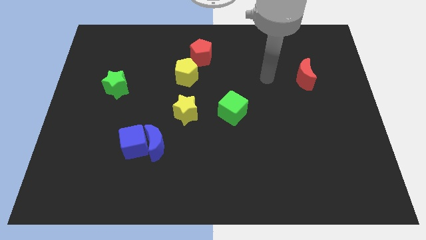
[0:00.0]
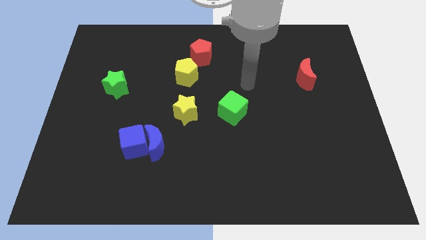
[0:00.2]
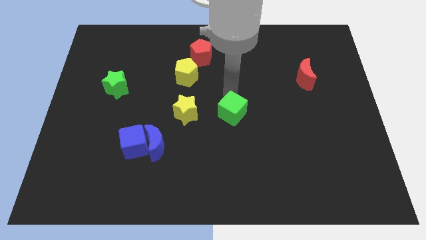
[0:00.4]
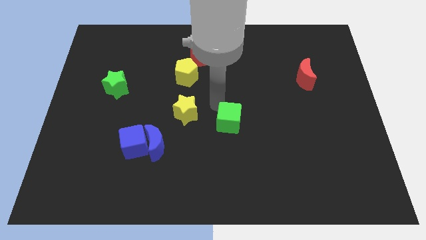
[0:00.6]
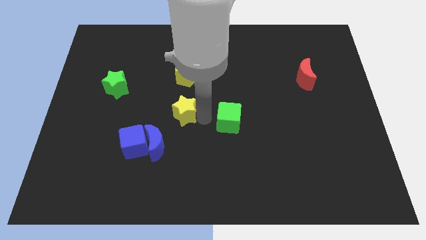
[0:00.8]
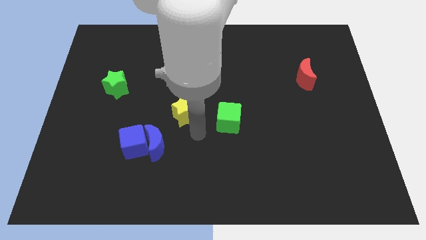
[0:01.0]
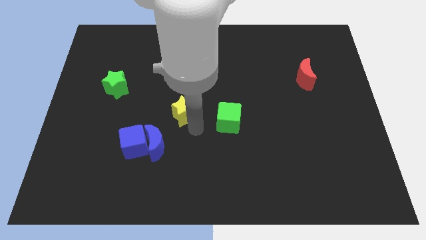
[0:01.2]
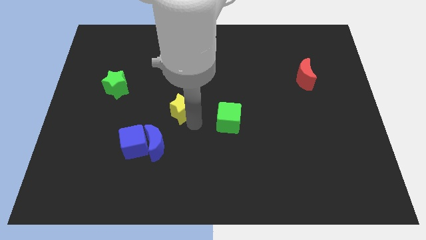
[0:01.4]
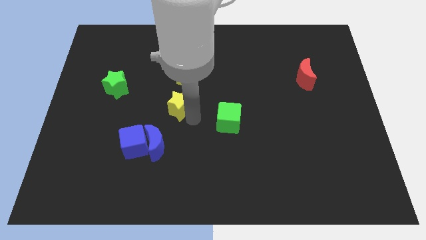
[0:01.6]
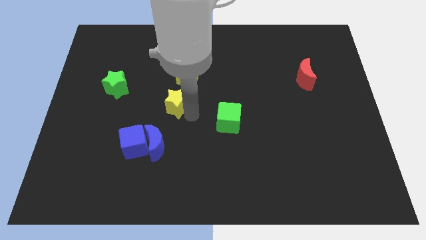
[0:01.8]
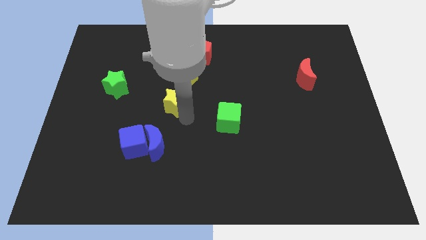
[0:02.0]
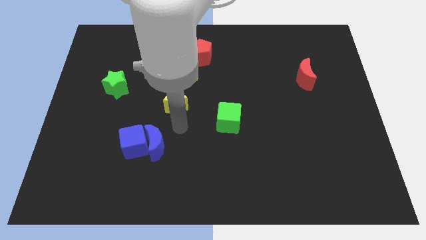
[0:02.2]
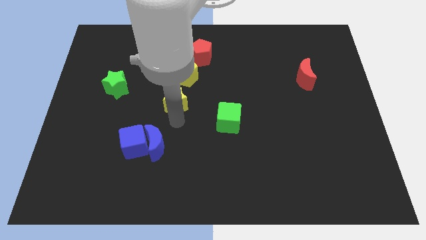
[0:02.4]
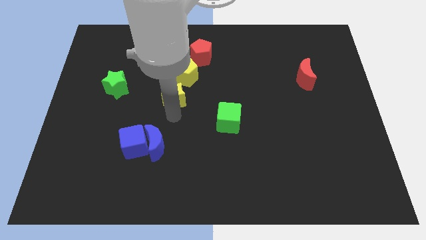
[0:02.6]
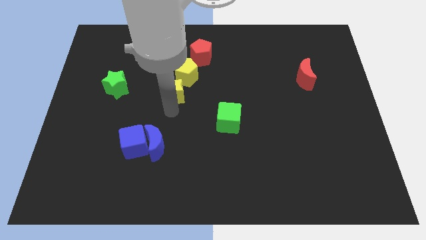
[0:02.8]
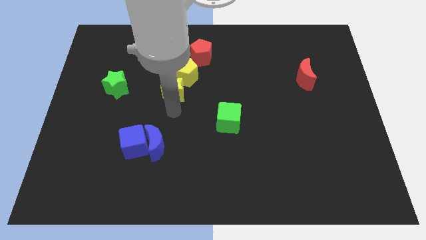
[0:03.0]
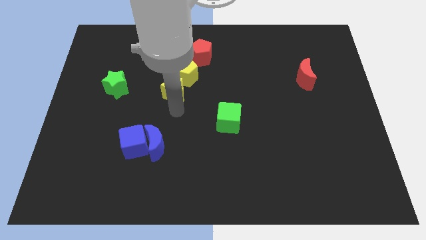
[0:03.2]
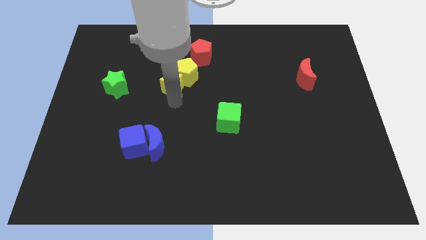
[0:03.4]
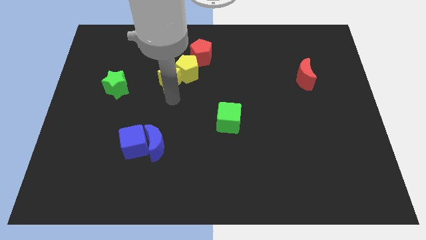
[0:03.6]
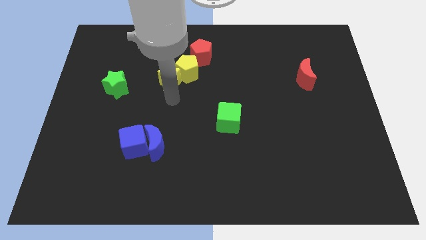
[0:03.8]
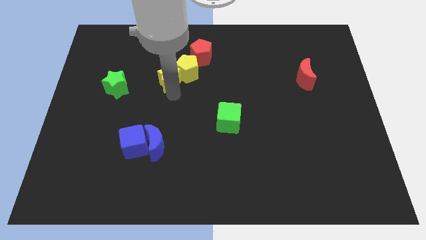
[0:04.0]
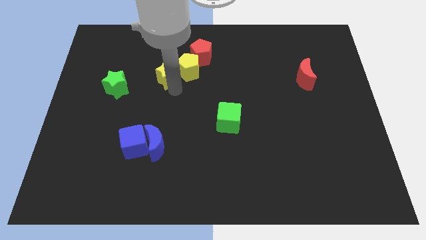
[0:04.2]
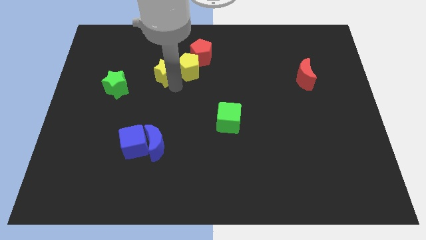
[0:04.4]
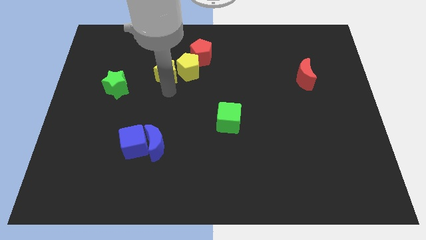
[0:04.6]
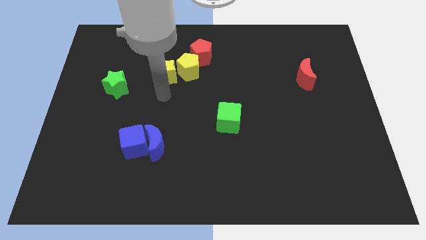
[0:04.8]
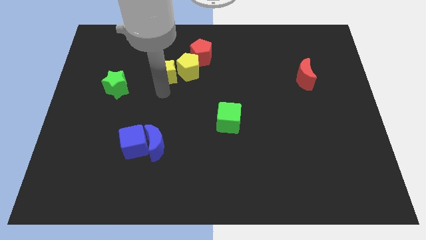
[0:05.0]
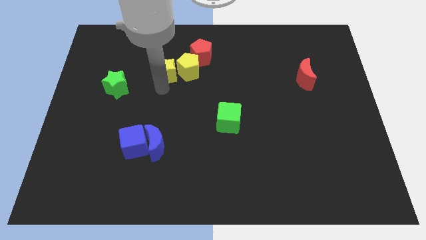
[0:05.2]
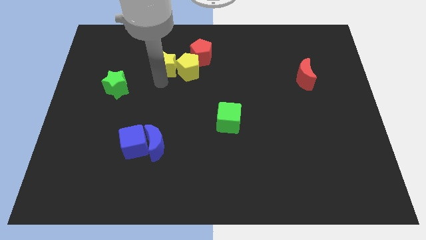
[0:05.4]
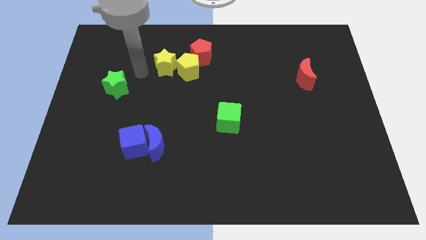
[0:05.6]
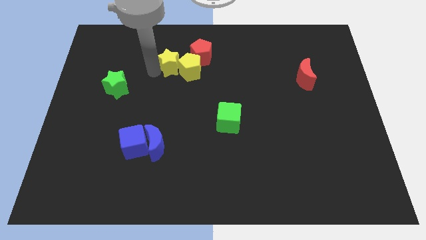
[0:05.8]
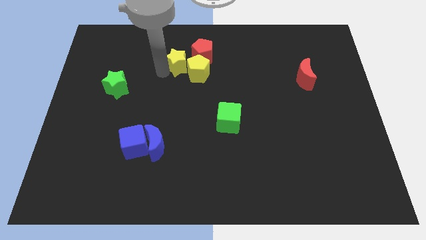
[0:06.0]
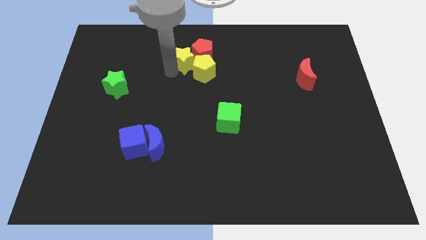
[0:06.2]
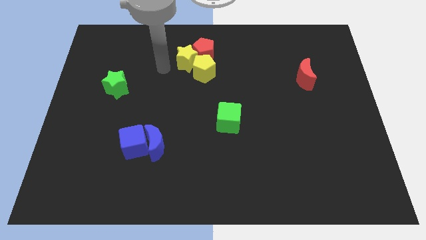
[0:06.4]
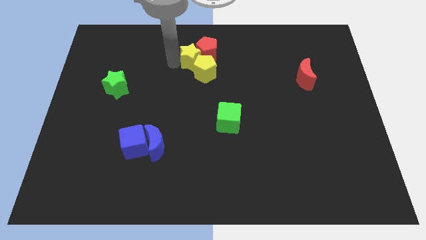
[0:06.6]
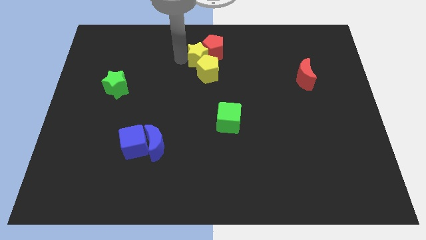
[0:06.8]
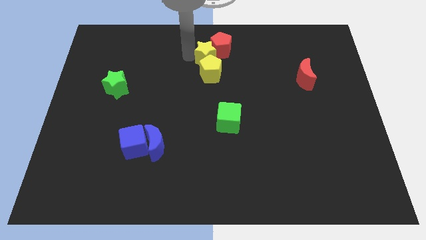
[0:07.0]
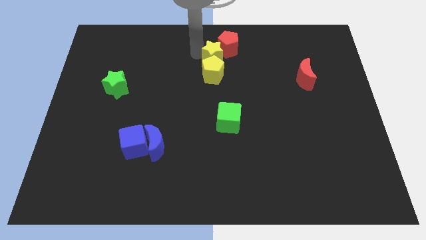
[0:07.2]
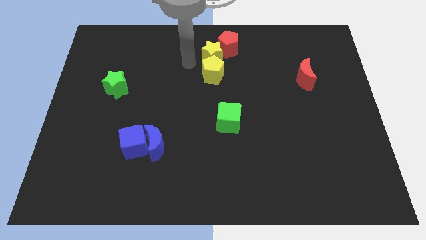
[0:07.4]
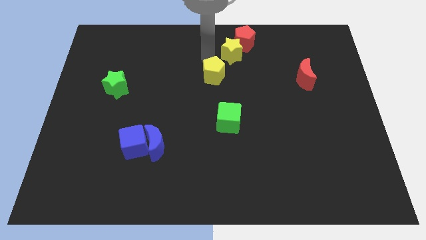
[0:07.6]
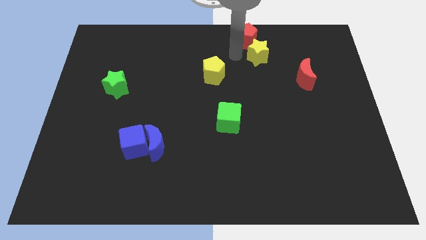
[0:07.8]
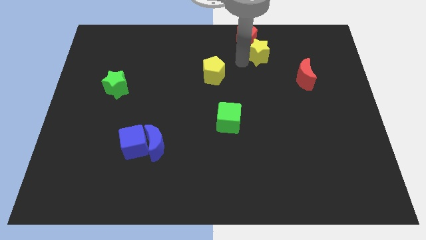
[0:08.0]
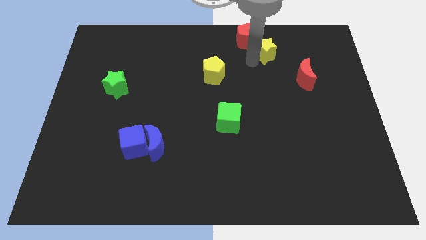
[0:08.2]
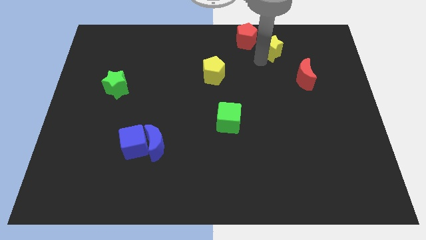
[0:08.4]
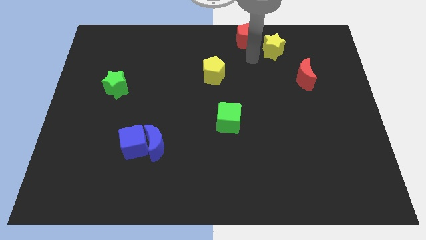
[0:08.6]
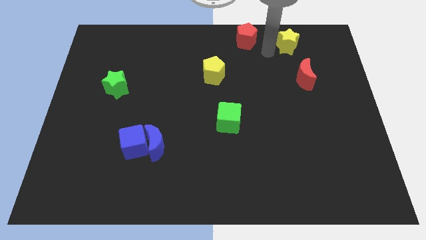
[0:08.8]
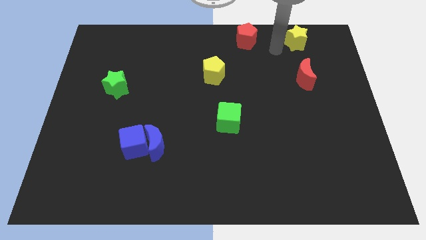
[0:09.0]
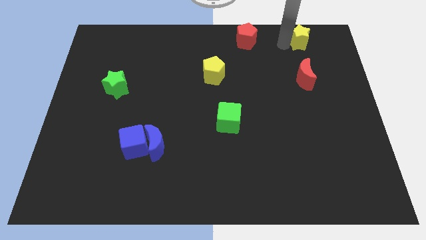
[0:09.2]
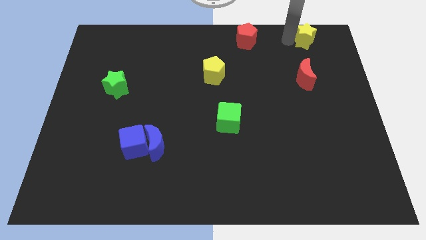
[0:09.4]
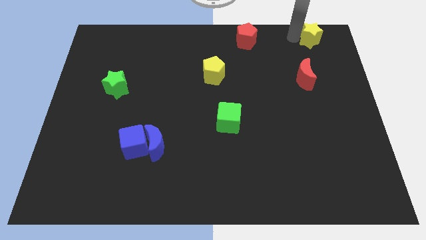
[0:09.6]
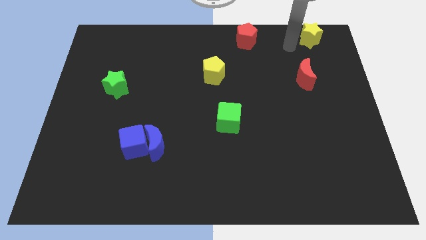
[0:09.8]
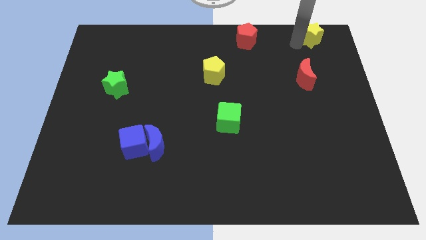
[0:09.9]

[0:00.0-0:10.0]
move the yellow star to the top right corner

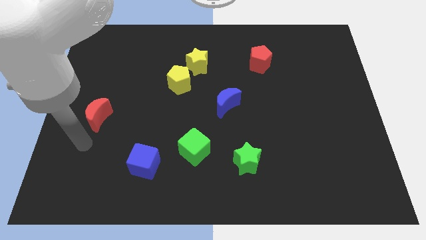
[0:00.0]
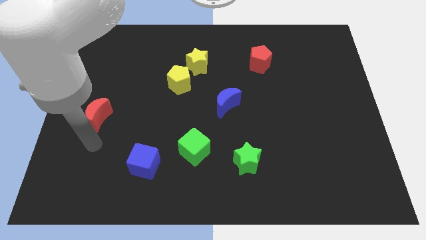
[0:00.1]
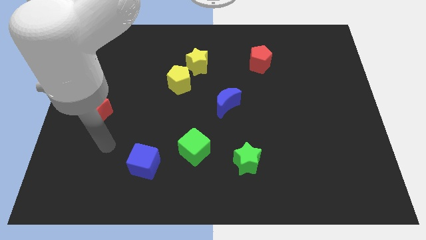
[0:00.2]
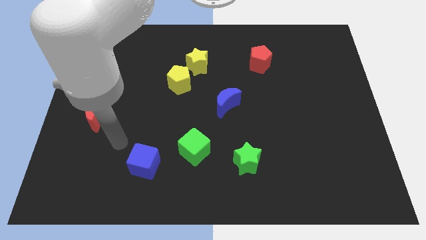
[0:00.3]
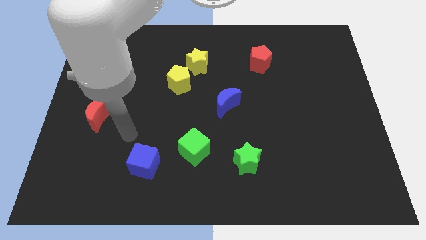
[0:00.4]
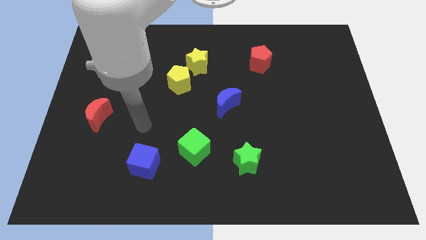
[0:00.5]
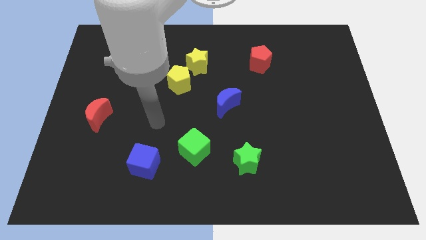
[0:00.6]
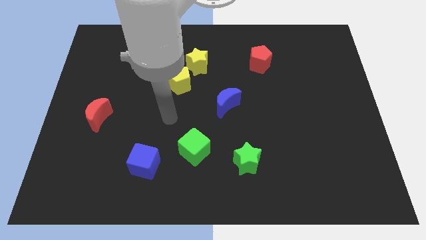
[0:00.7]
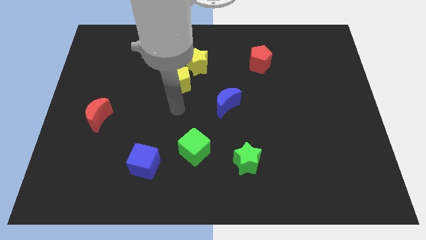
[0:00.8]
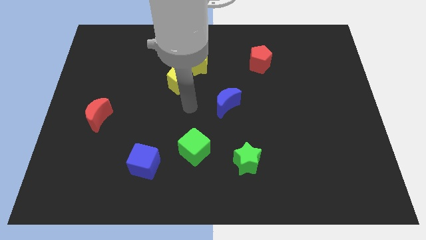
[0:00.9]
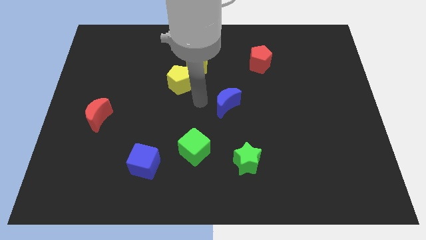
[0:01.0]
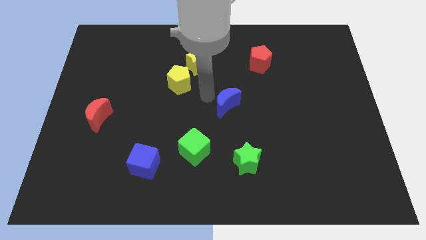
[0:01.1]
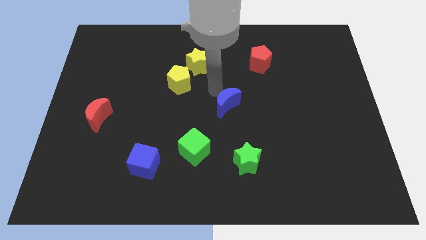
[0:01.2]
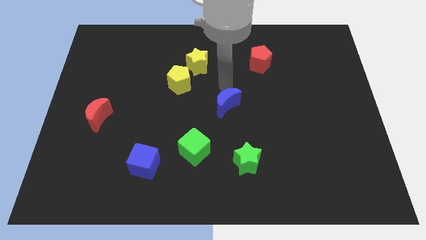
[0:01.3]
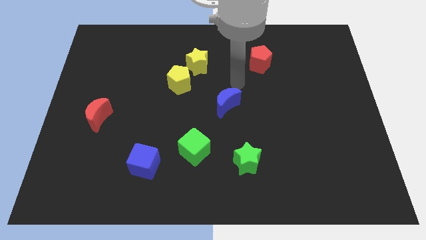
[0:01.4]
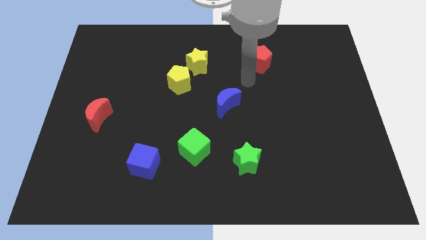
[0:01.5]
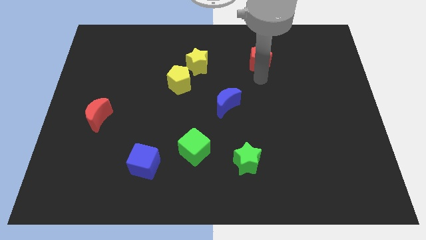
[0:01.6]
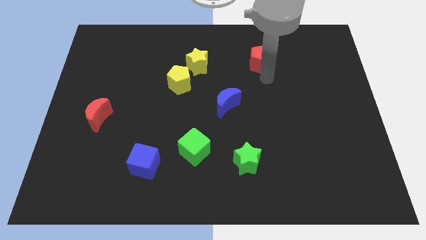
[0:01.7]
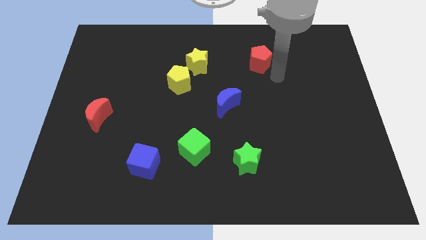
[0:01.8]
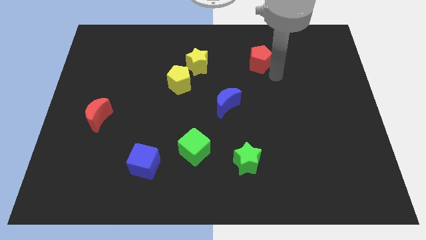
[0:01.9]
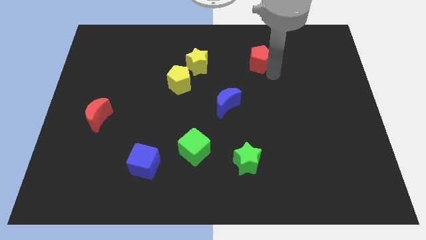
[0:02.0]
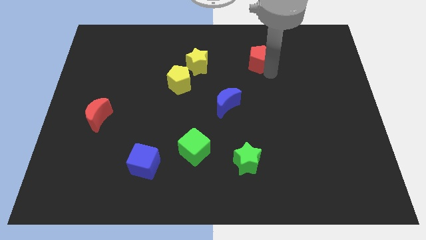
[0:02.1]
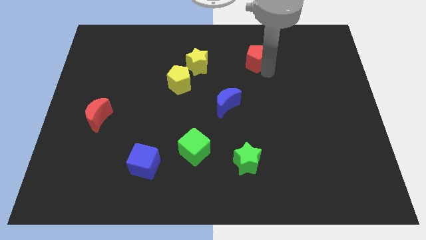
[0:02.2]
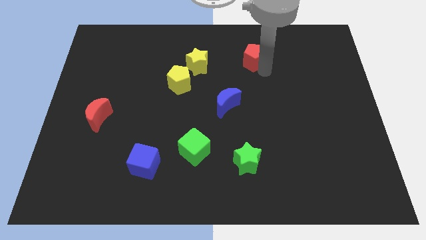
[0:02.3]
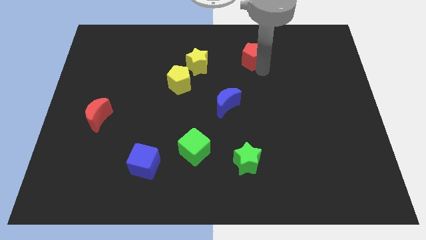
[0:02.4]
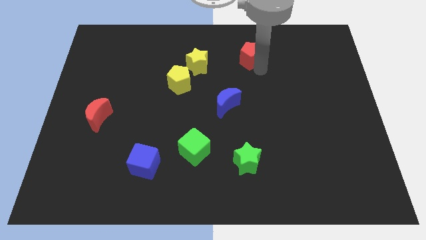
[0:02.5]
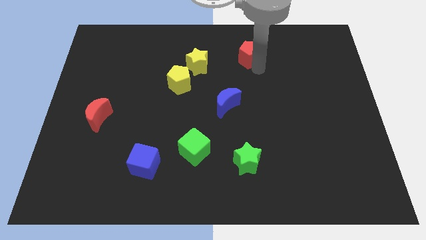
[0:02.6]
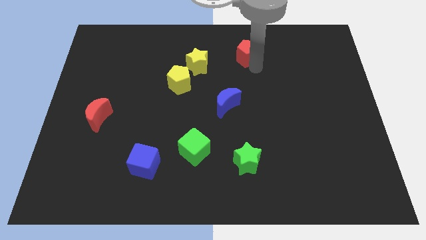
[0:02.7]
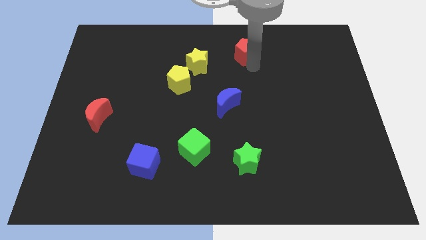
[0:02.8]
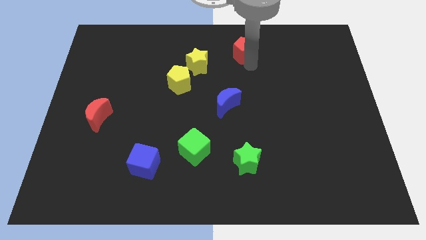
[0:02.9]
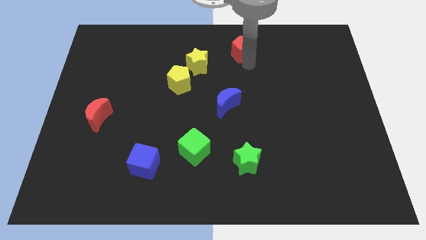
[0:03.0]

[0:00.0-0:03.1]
move the red pentagon to the towards your base
